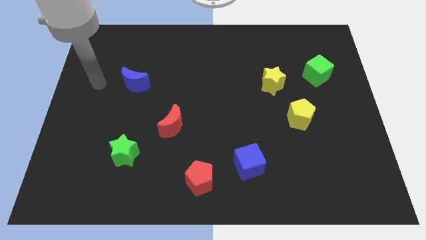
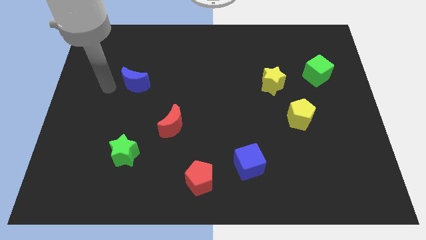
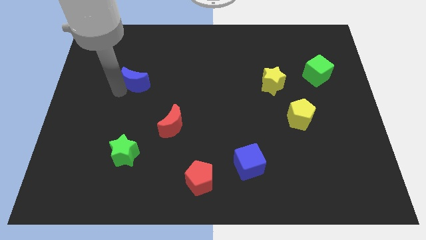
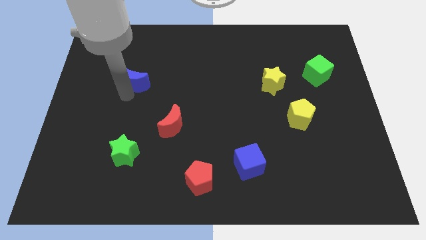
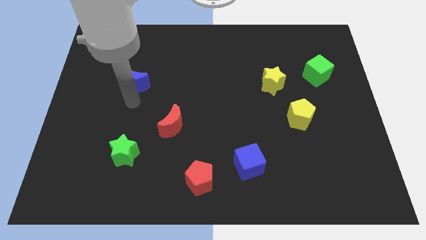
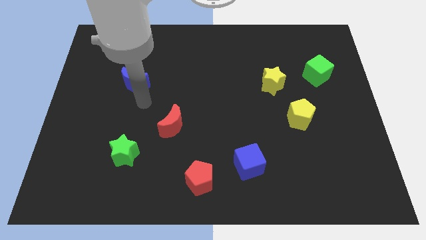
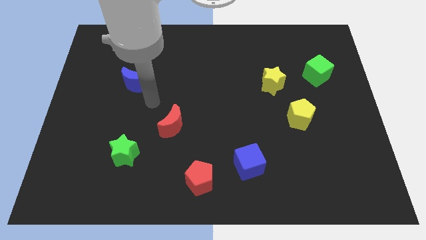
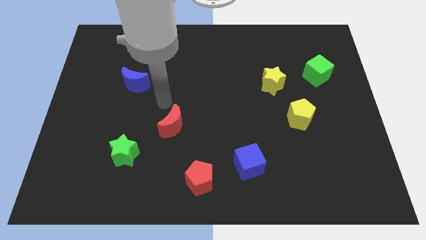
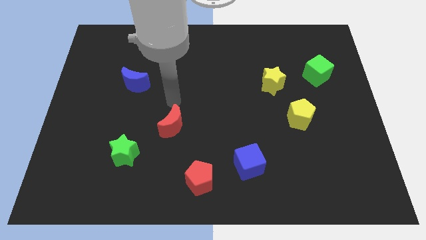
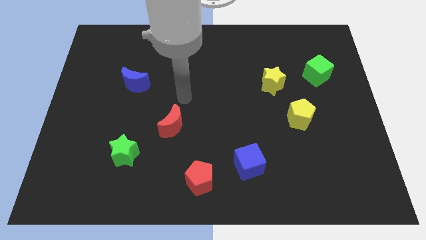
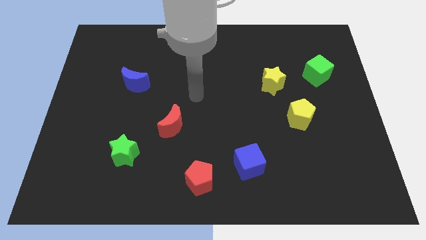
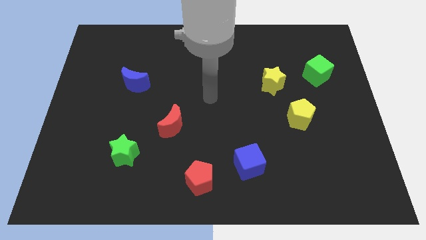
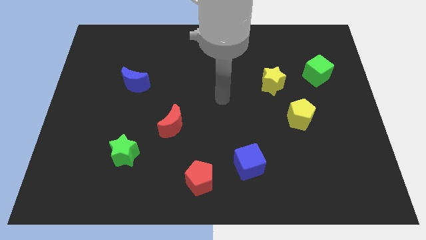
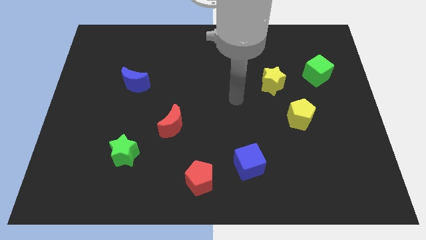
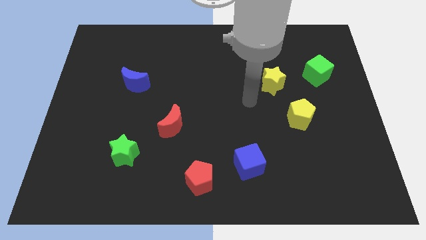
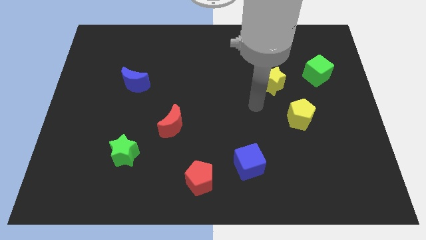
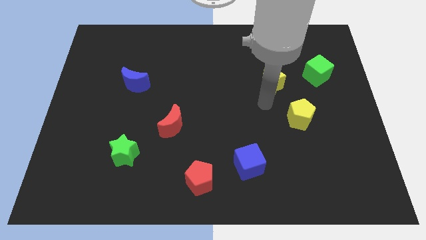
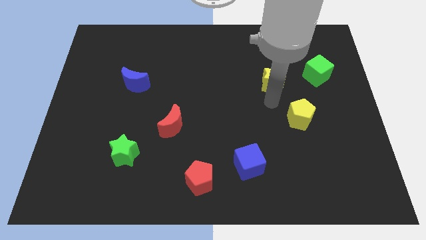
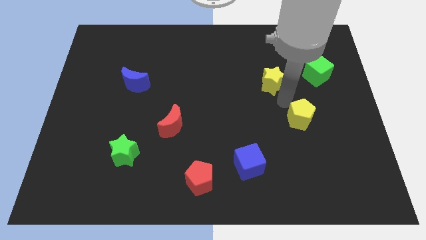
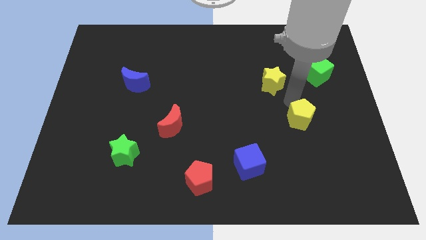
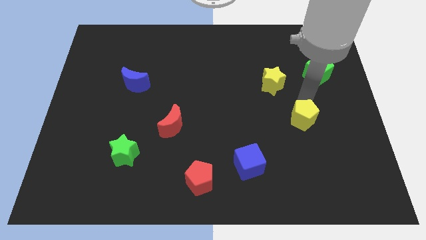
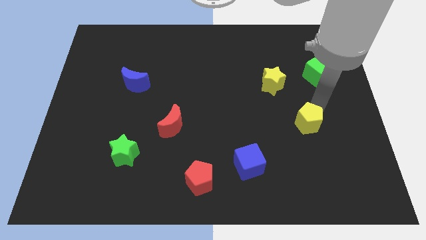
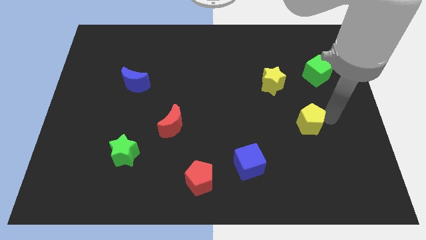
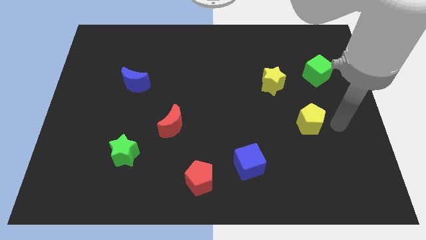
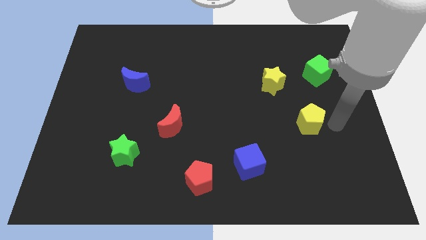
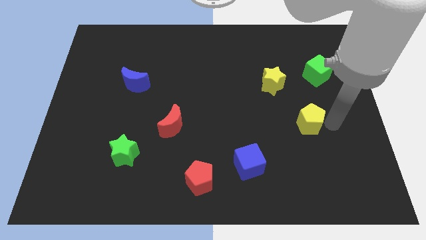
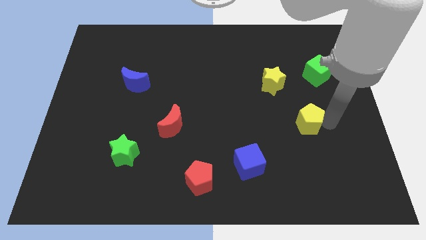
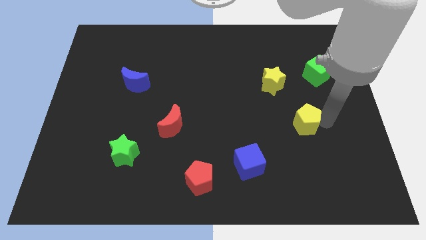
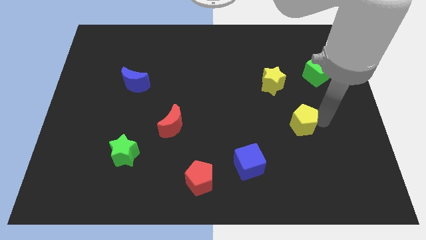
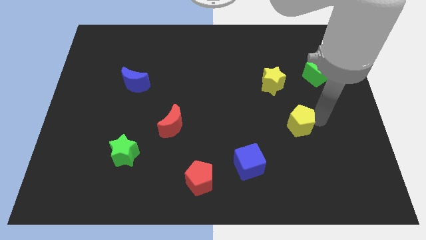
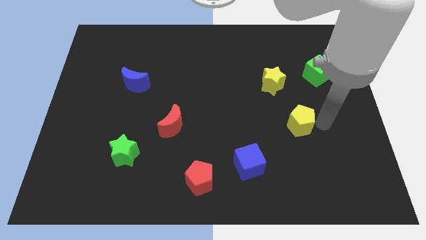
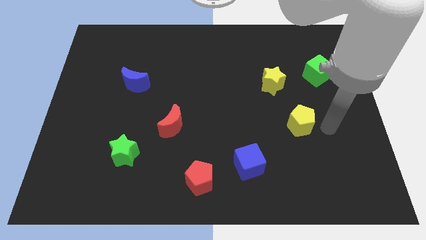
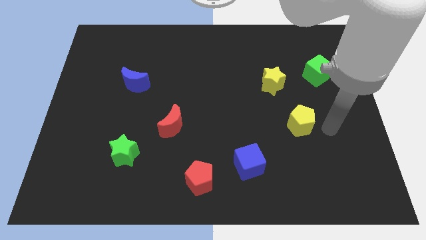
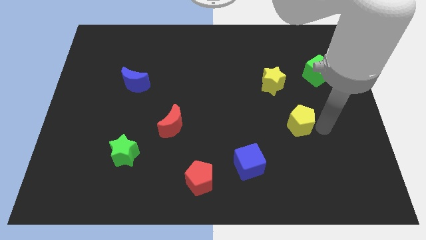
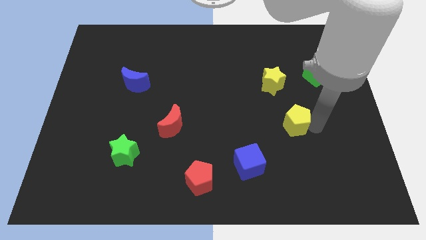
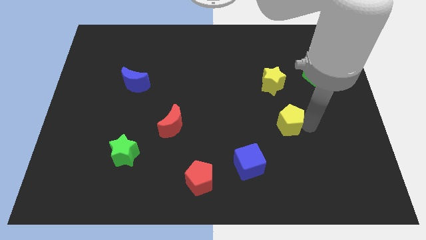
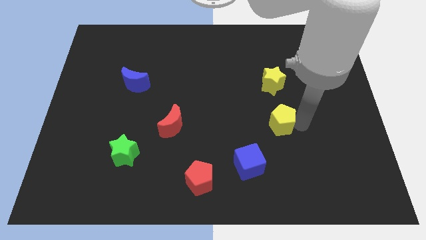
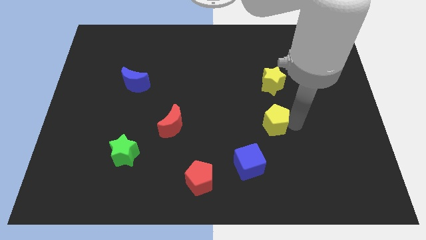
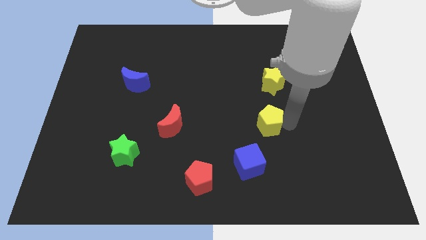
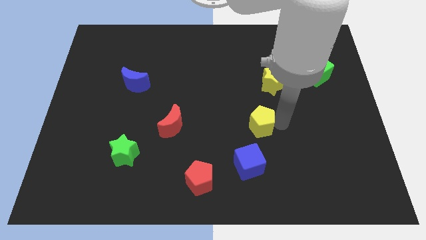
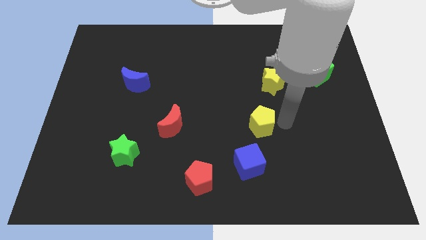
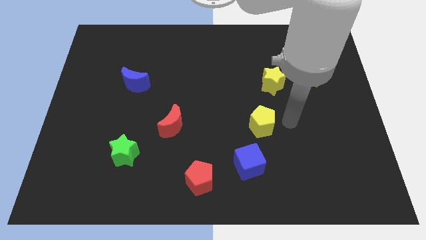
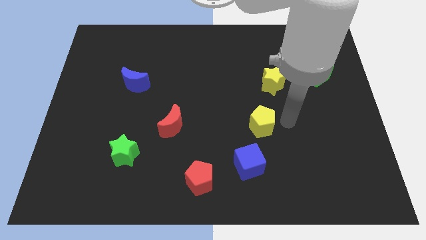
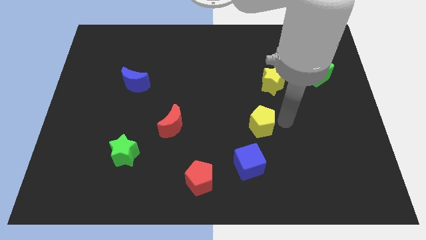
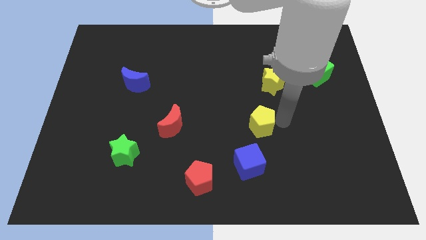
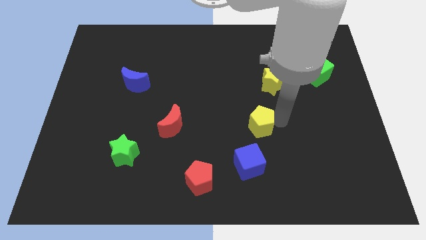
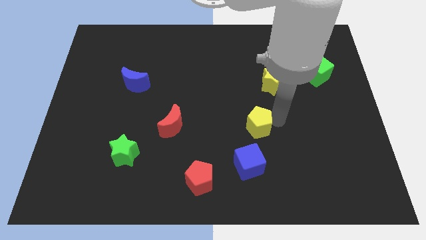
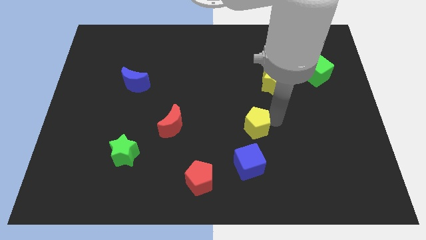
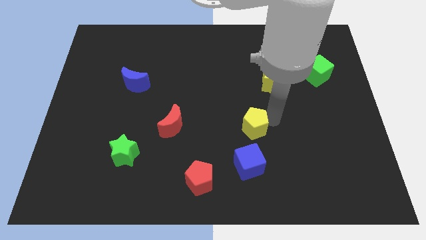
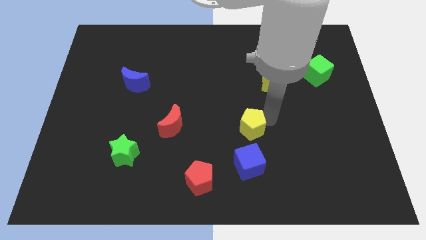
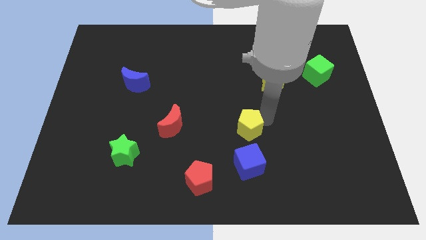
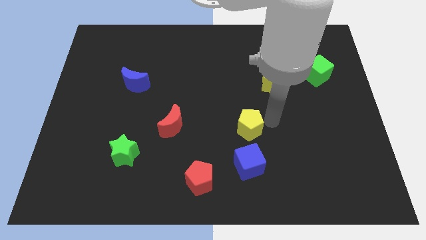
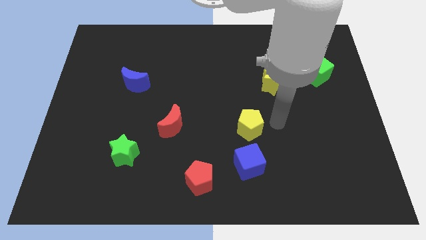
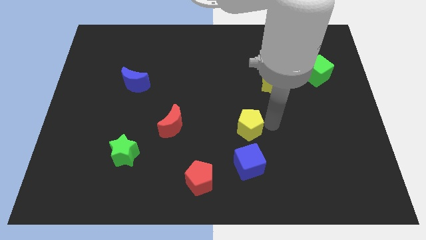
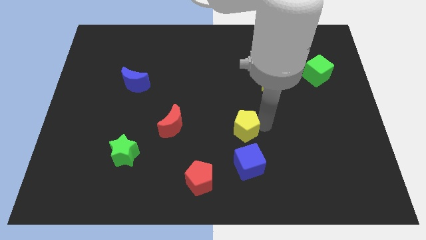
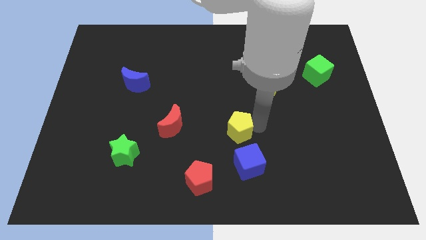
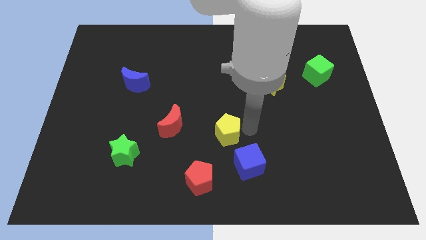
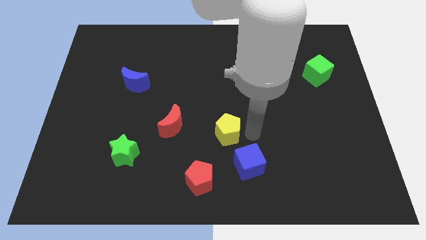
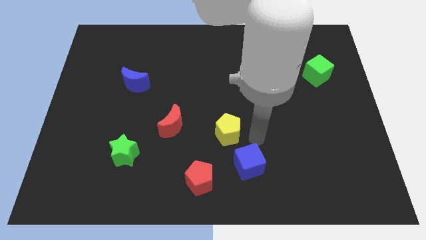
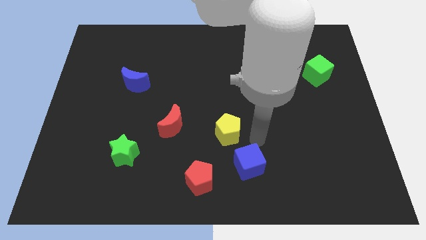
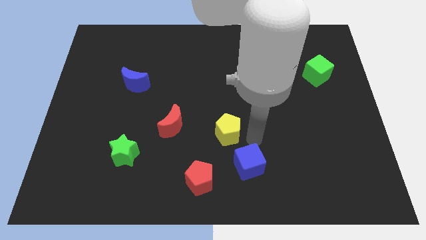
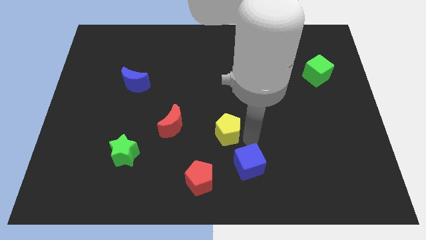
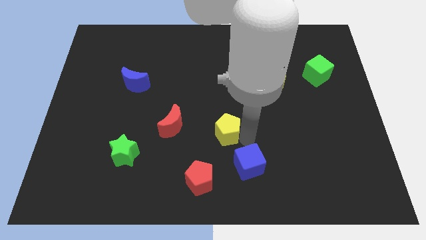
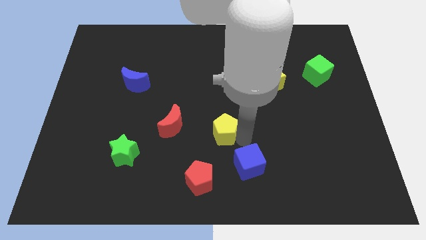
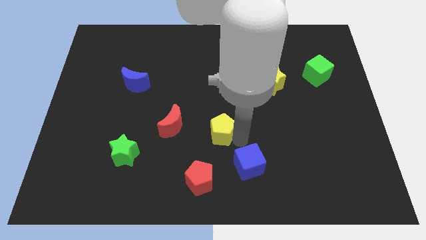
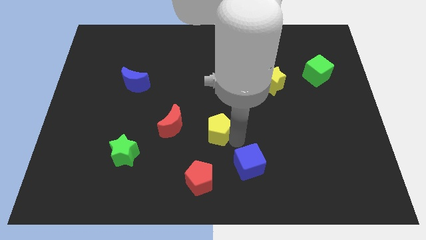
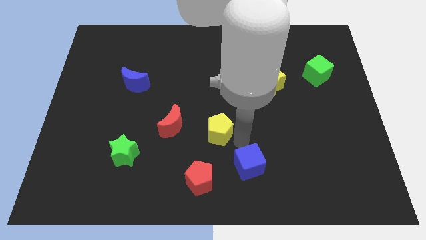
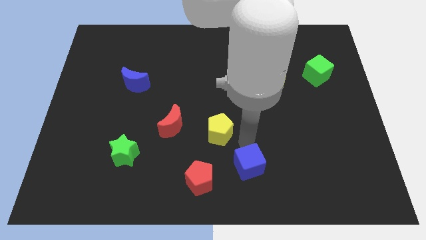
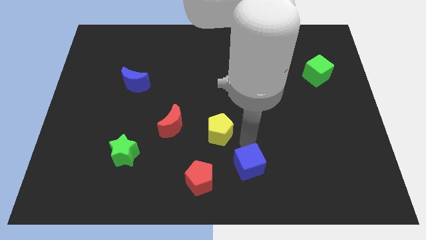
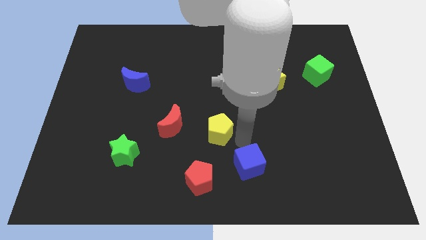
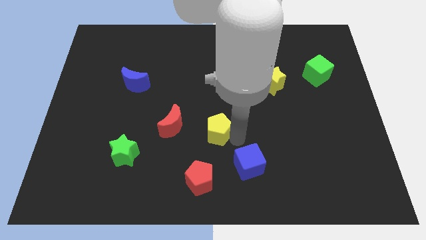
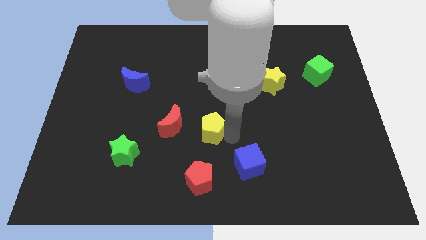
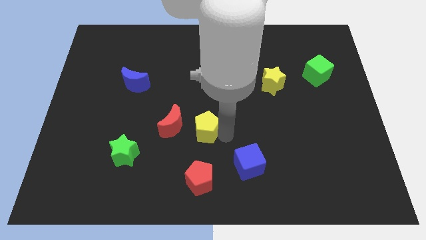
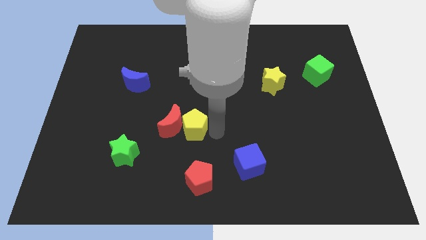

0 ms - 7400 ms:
slide the yellow pentagon towards the red moon
